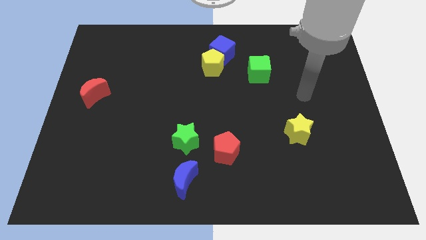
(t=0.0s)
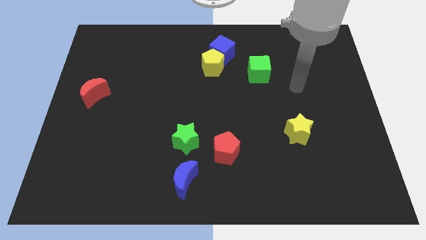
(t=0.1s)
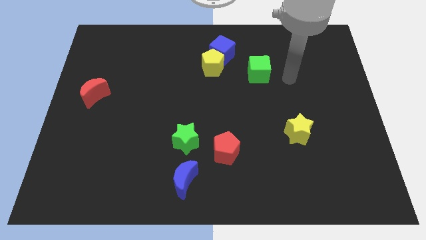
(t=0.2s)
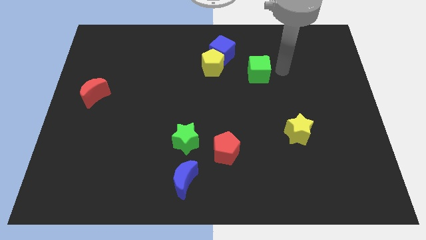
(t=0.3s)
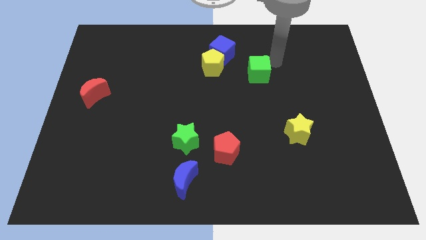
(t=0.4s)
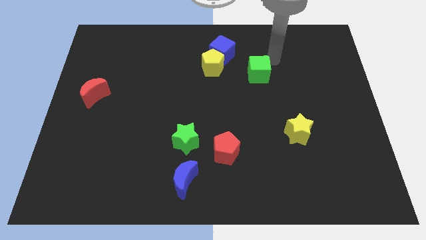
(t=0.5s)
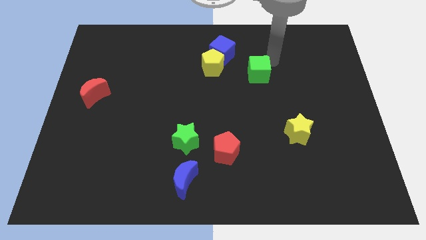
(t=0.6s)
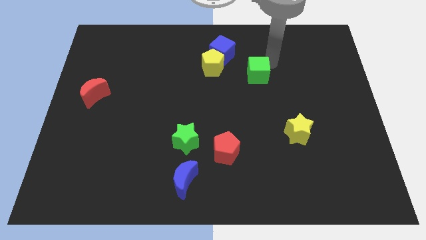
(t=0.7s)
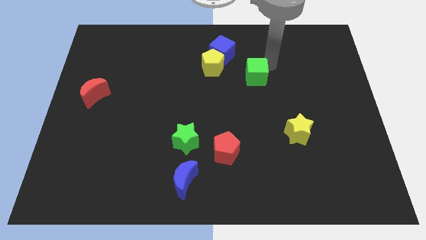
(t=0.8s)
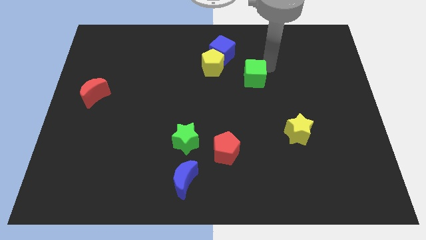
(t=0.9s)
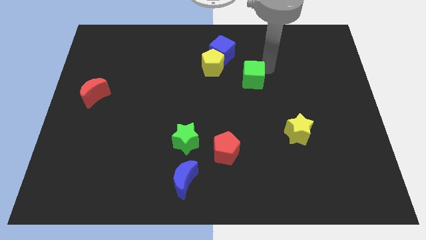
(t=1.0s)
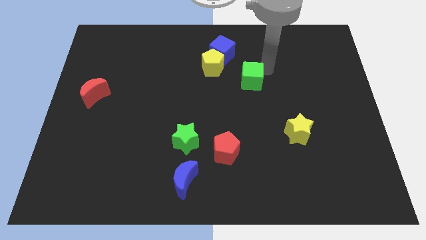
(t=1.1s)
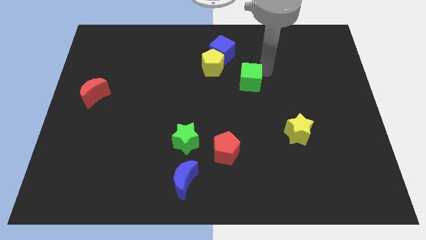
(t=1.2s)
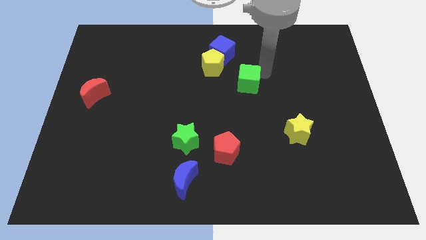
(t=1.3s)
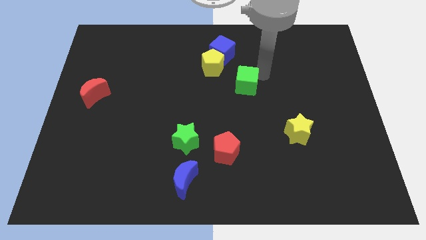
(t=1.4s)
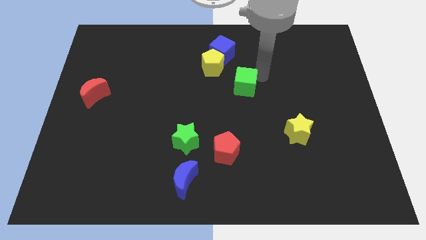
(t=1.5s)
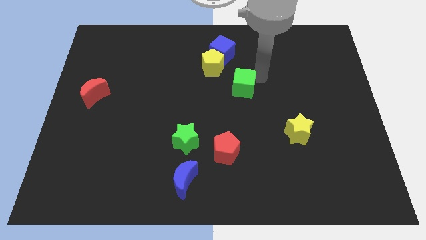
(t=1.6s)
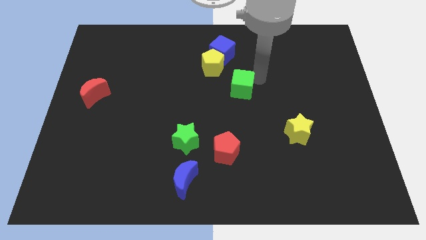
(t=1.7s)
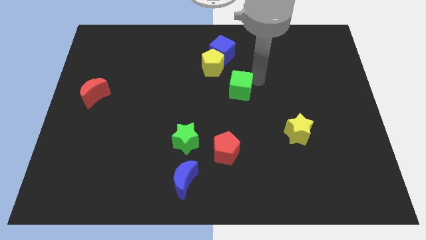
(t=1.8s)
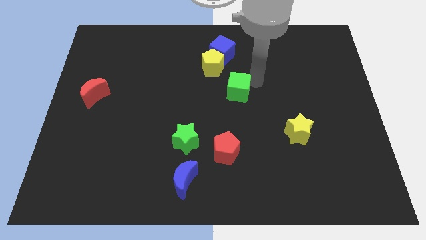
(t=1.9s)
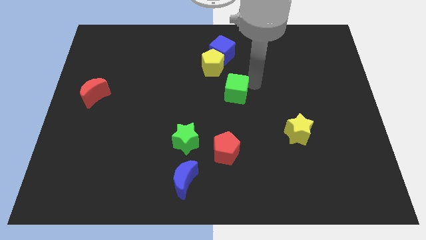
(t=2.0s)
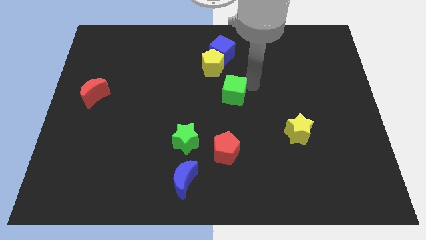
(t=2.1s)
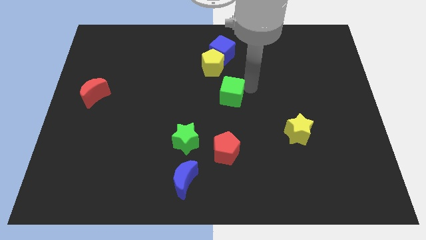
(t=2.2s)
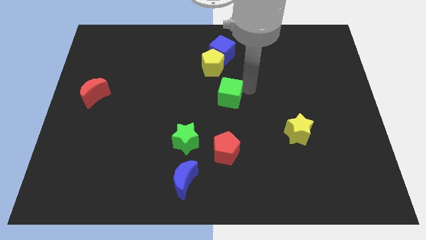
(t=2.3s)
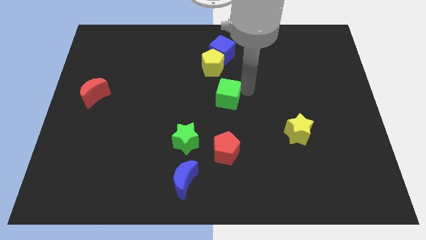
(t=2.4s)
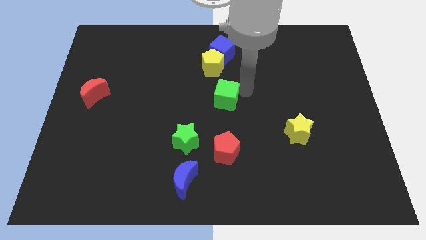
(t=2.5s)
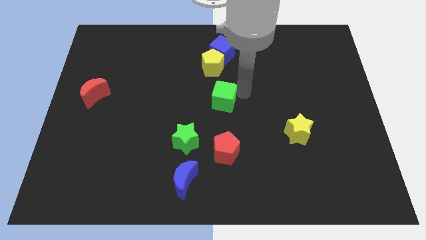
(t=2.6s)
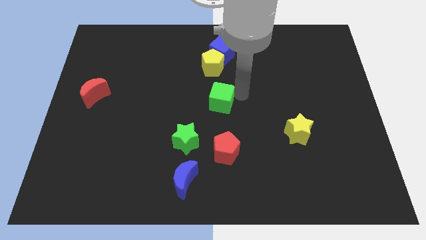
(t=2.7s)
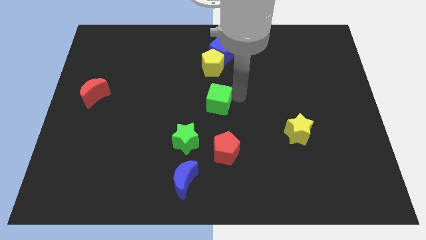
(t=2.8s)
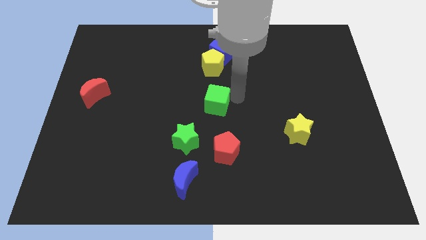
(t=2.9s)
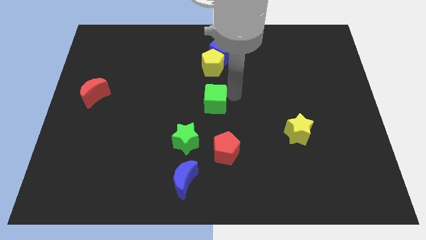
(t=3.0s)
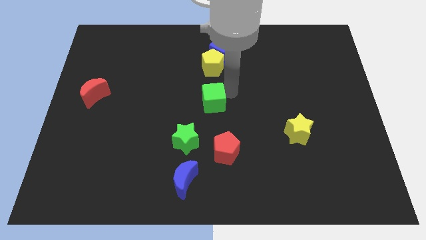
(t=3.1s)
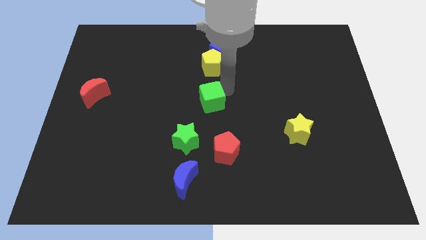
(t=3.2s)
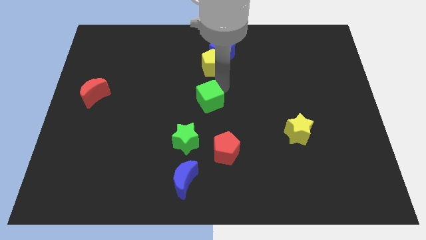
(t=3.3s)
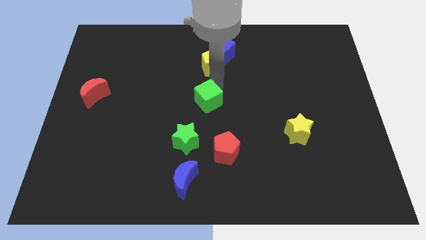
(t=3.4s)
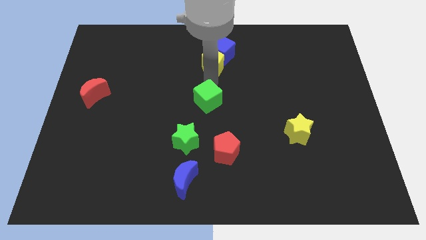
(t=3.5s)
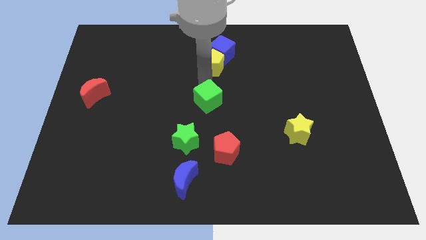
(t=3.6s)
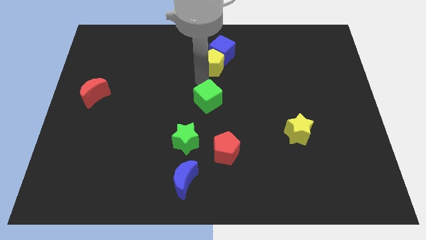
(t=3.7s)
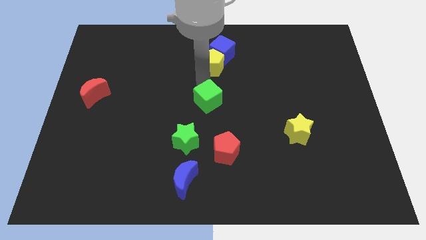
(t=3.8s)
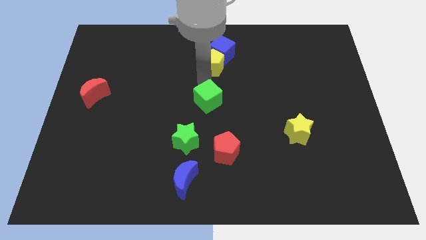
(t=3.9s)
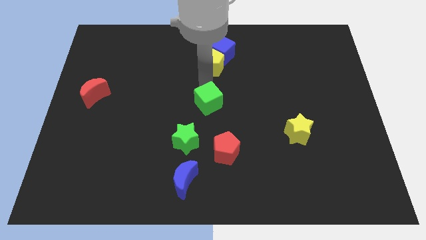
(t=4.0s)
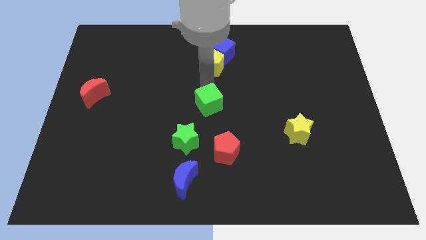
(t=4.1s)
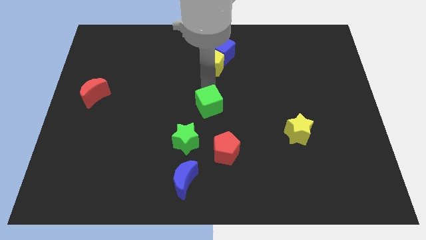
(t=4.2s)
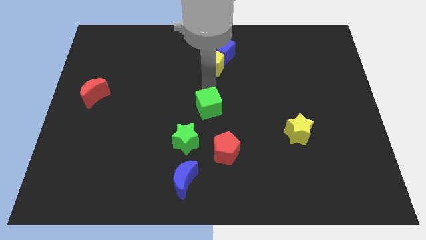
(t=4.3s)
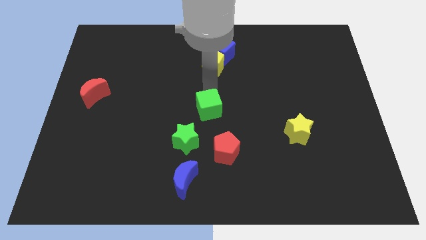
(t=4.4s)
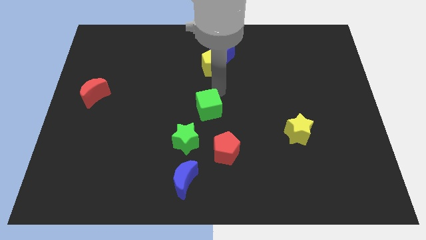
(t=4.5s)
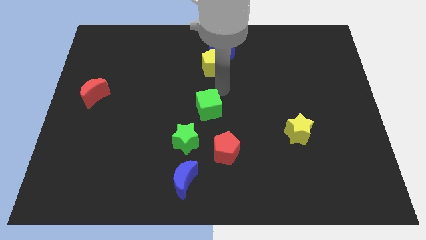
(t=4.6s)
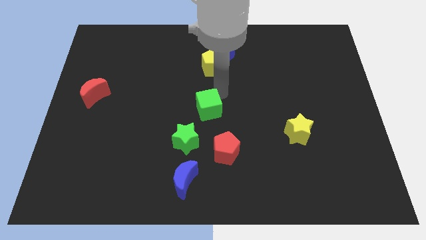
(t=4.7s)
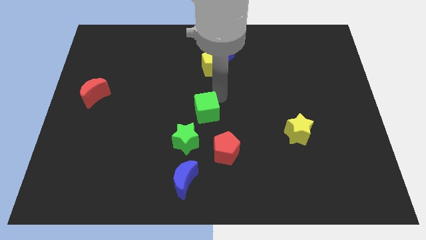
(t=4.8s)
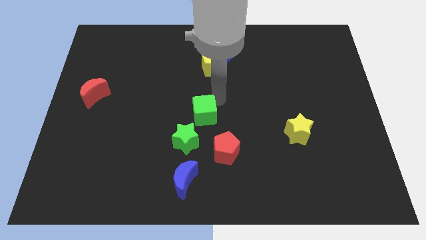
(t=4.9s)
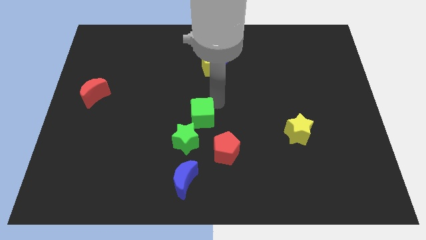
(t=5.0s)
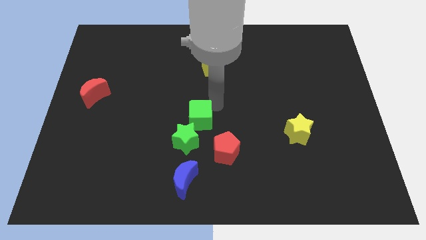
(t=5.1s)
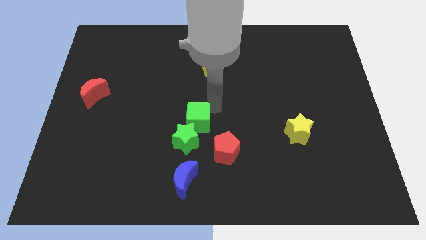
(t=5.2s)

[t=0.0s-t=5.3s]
move the green cube close to the green star

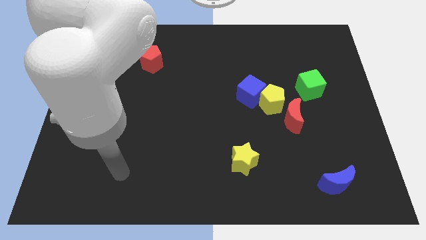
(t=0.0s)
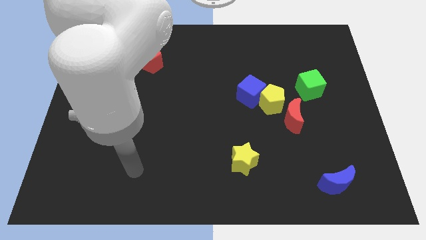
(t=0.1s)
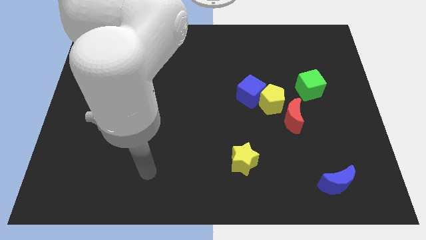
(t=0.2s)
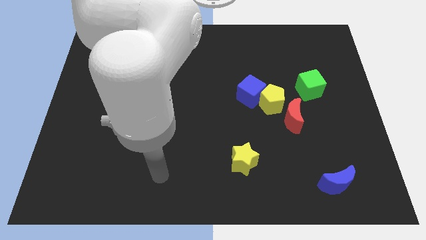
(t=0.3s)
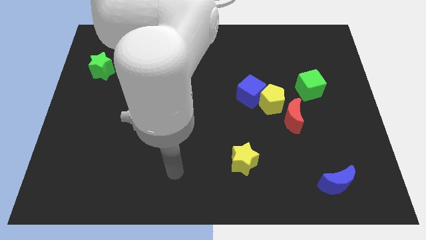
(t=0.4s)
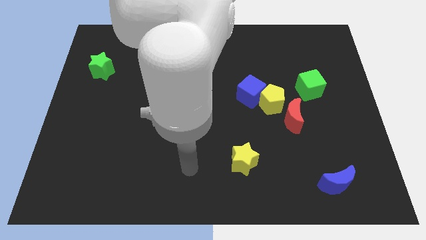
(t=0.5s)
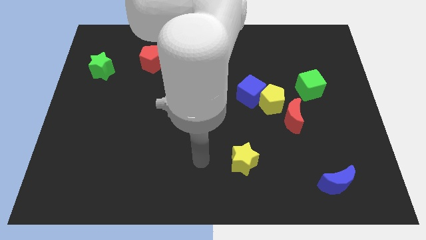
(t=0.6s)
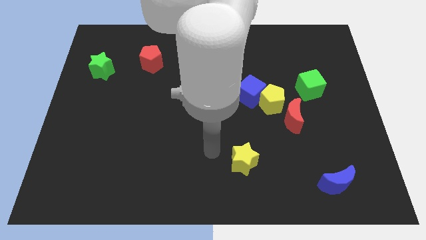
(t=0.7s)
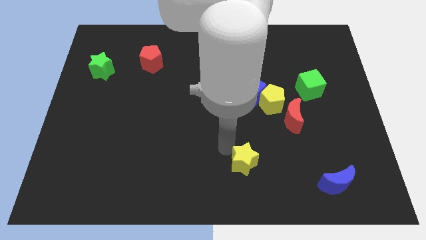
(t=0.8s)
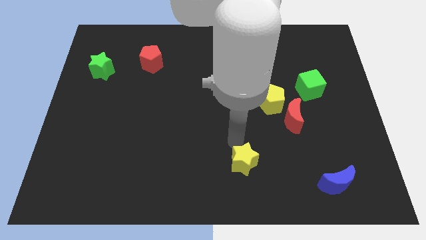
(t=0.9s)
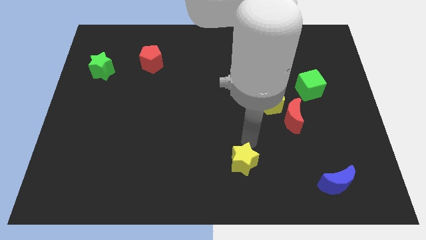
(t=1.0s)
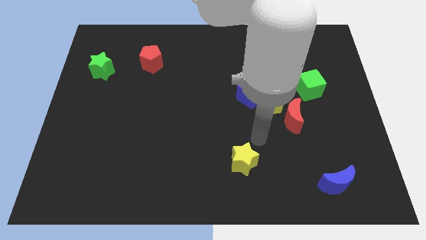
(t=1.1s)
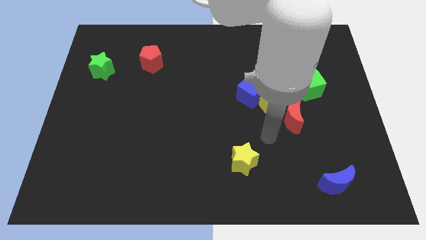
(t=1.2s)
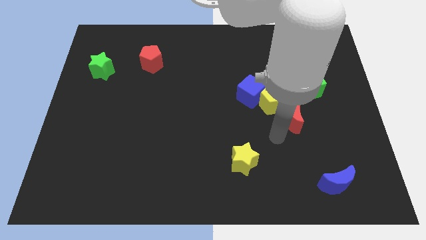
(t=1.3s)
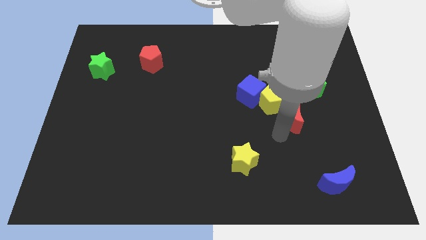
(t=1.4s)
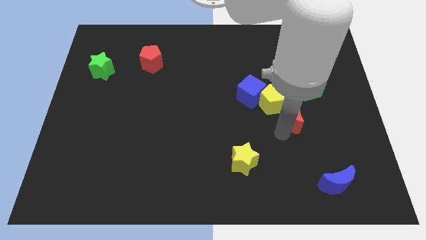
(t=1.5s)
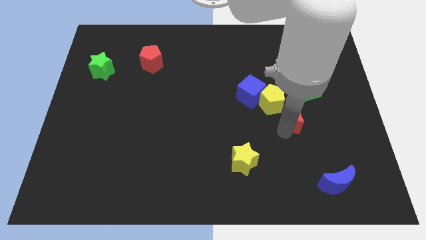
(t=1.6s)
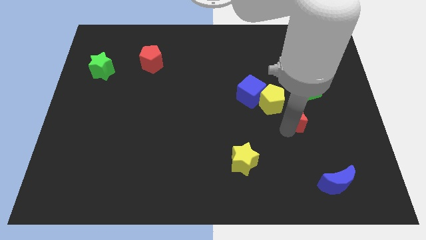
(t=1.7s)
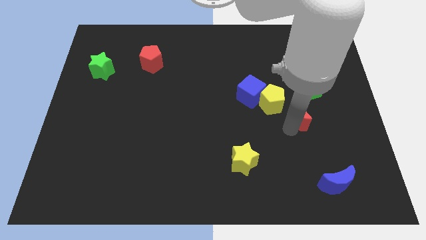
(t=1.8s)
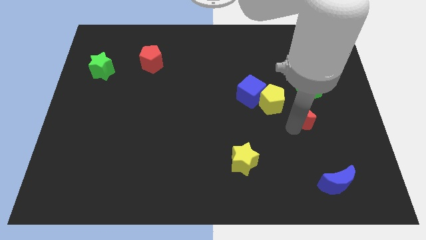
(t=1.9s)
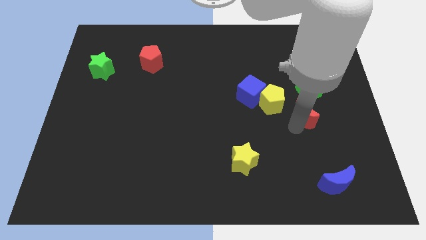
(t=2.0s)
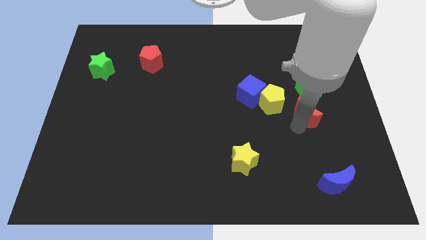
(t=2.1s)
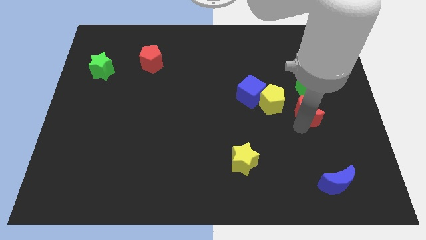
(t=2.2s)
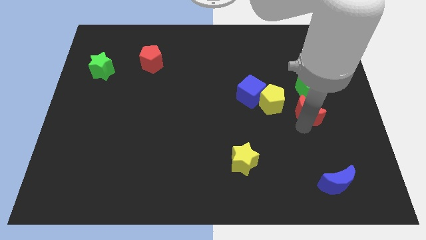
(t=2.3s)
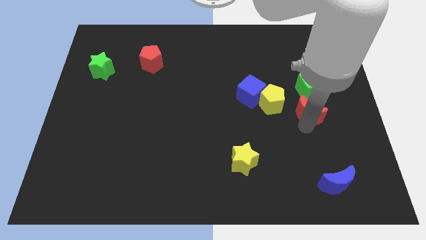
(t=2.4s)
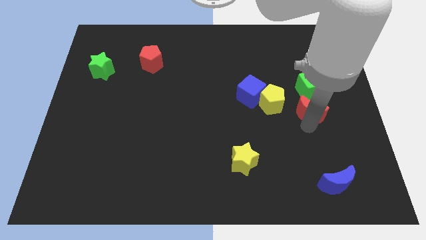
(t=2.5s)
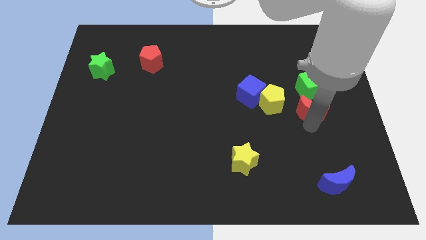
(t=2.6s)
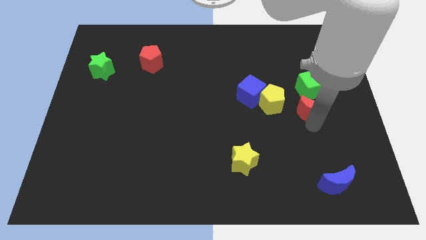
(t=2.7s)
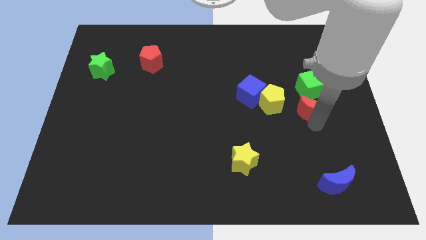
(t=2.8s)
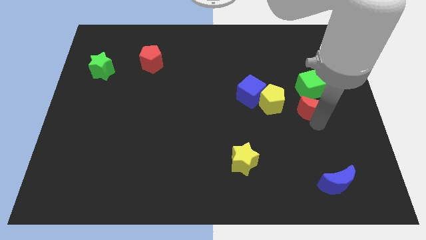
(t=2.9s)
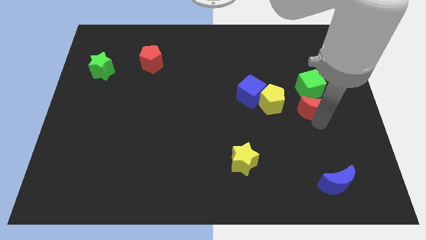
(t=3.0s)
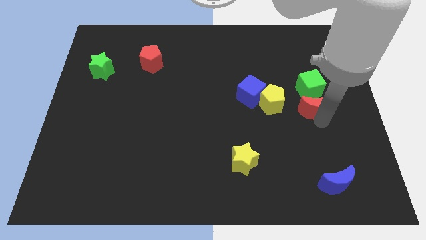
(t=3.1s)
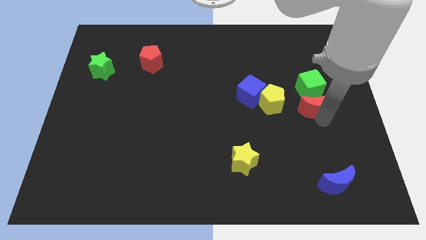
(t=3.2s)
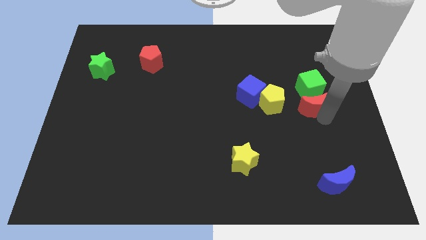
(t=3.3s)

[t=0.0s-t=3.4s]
push the red moon to the green cube
